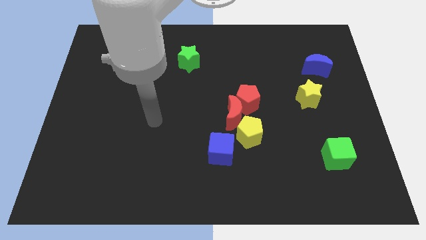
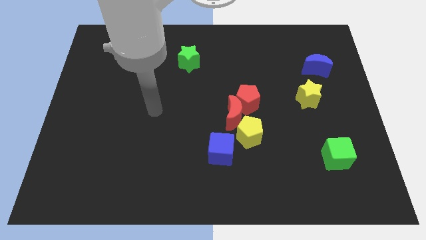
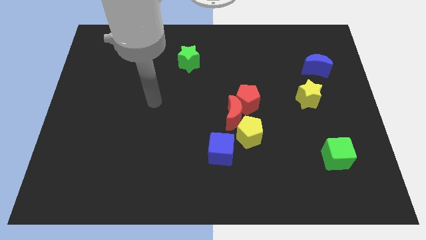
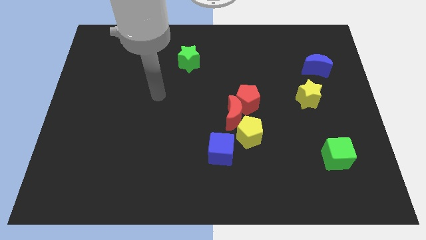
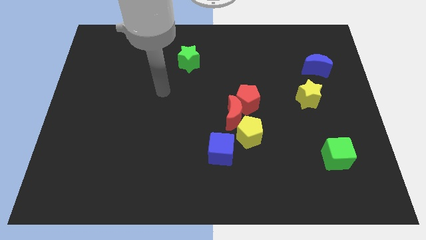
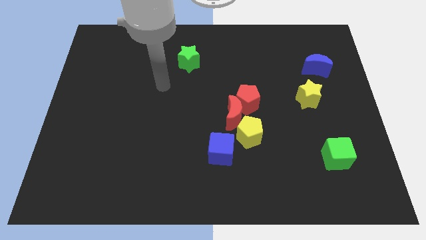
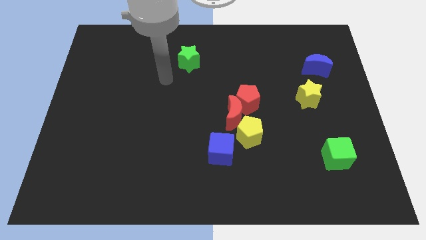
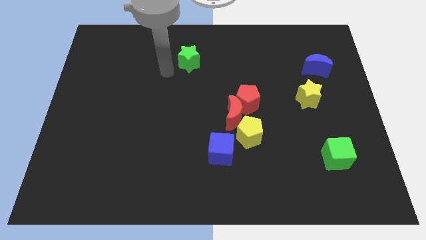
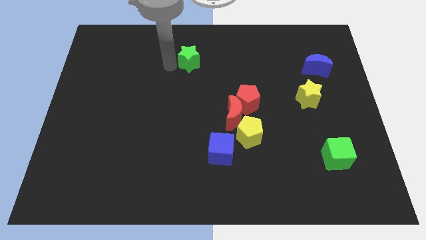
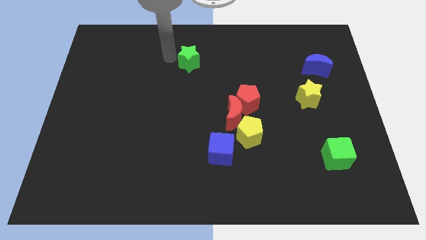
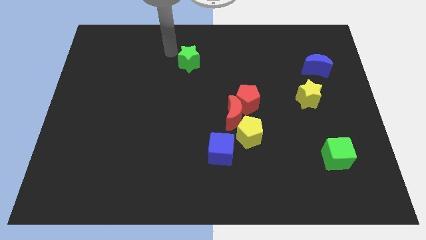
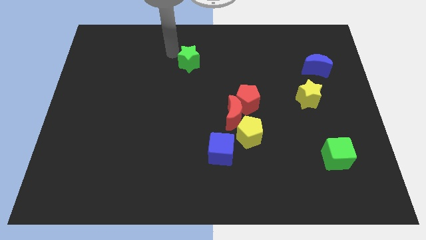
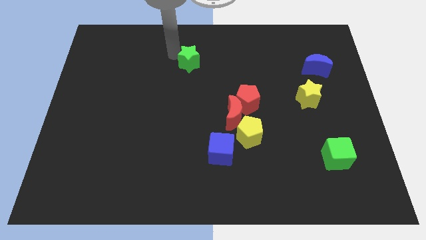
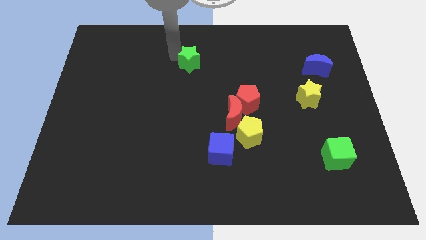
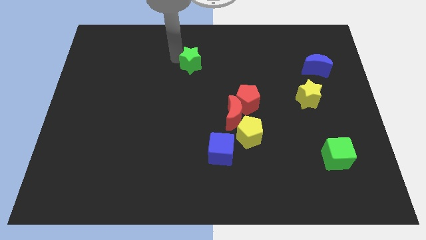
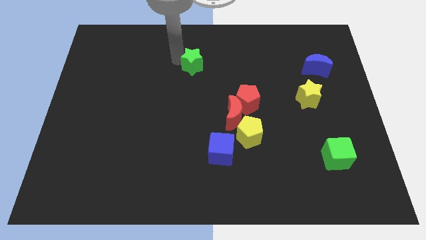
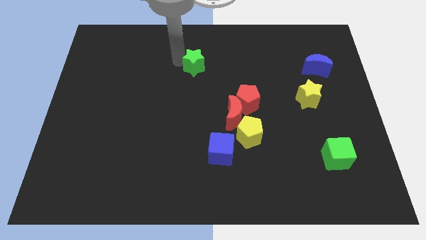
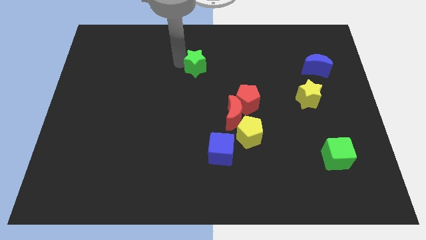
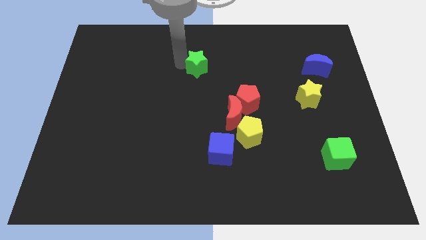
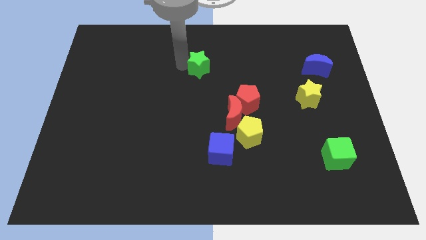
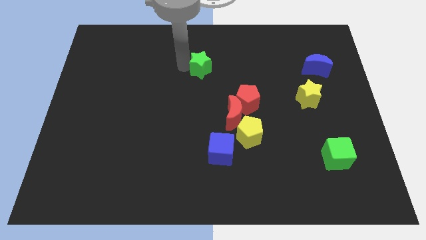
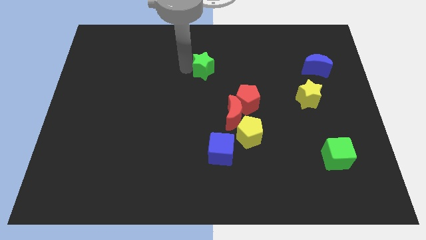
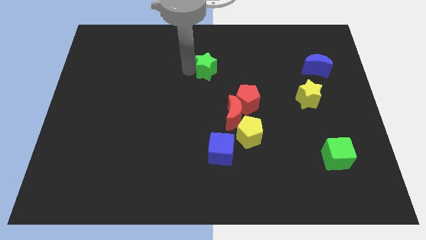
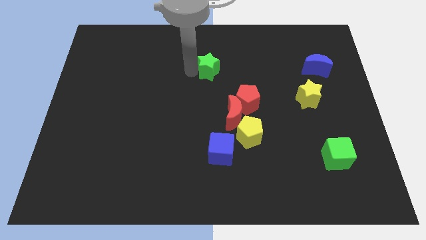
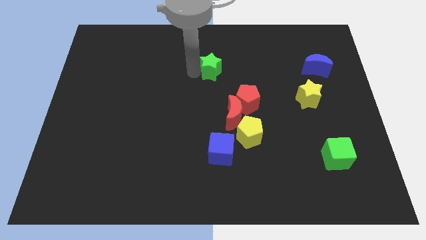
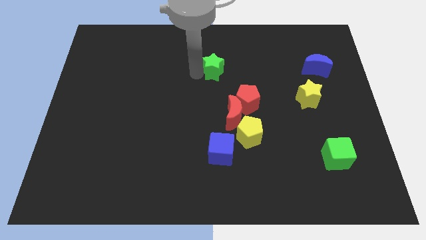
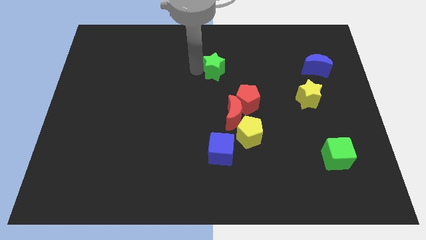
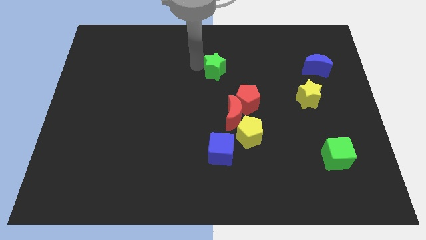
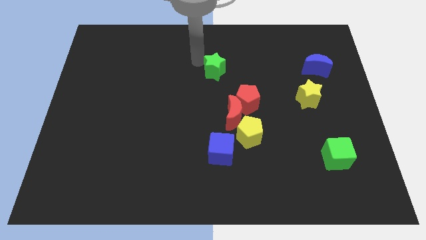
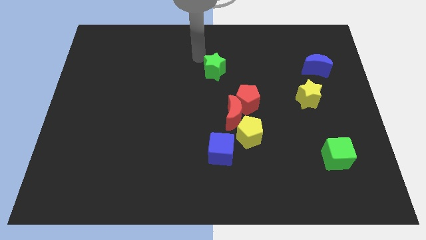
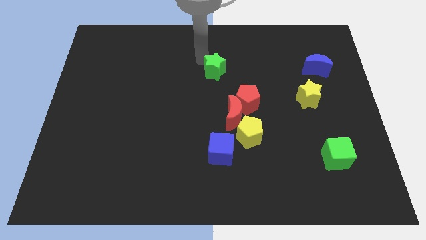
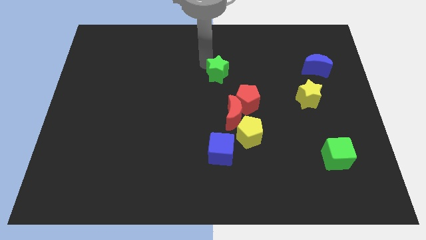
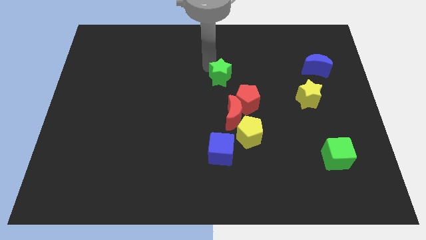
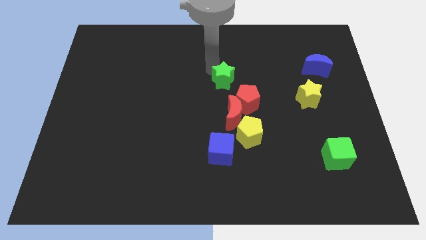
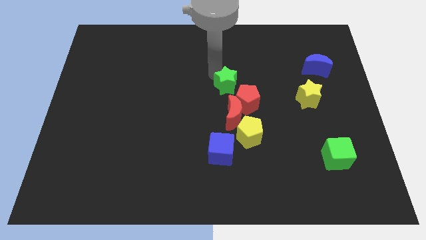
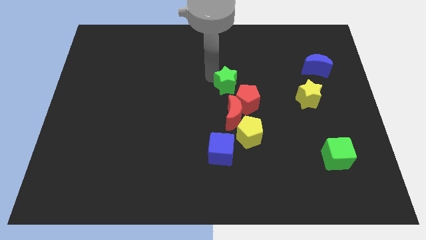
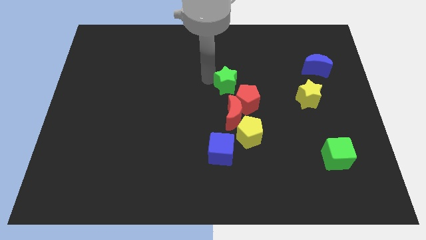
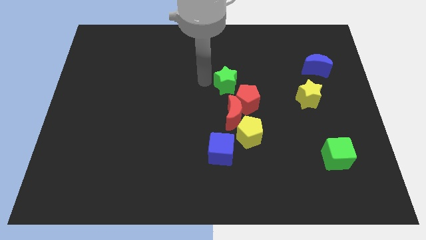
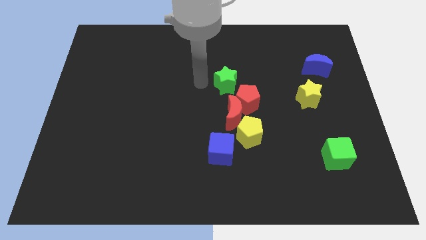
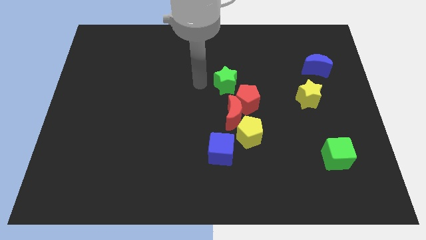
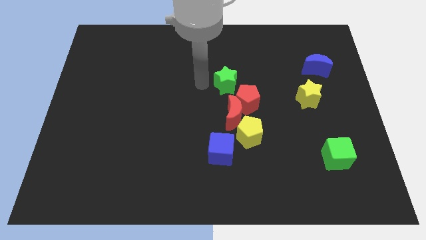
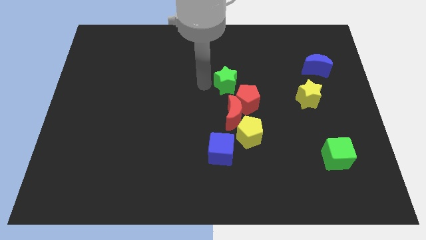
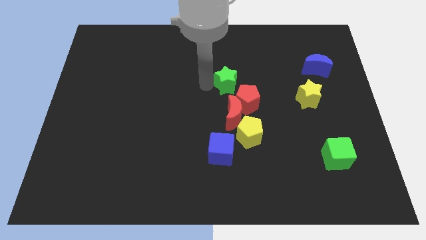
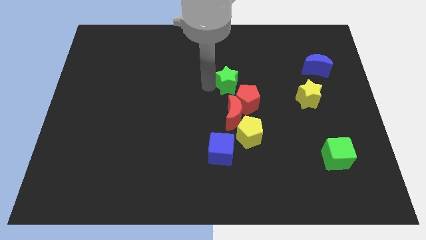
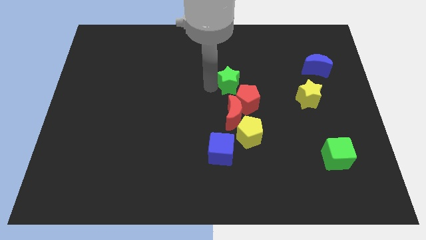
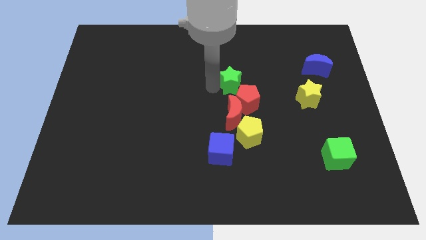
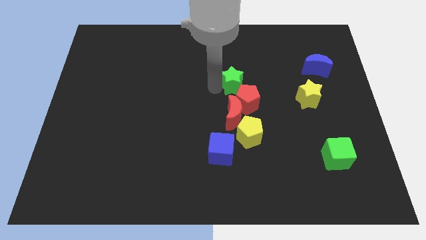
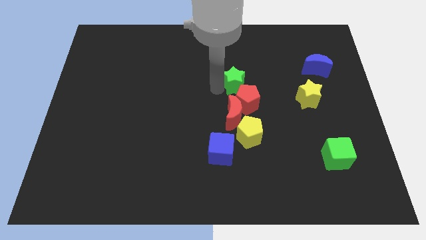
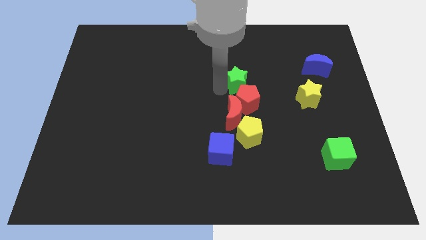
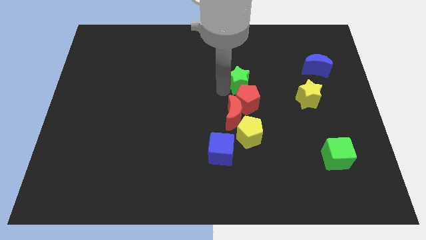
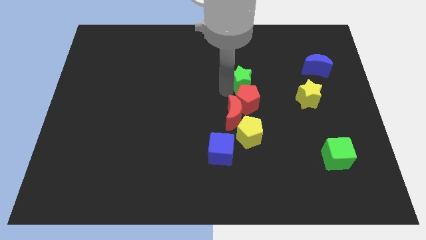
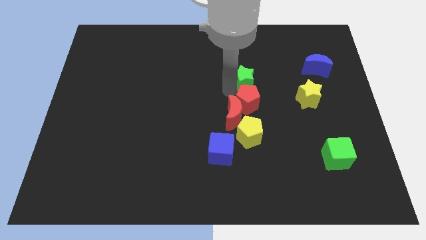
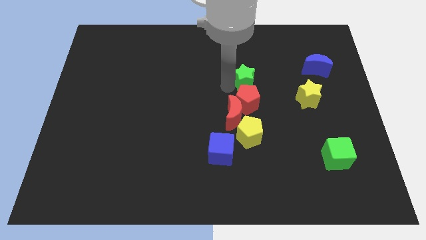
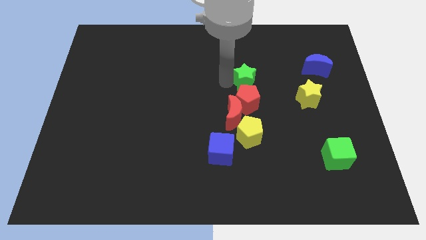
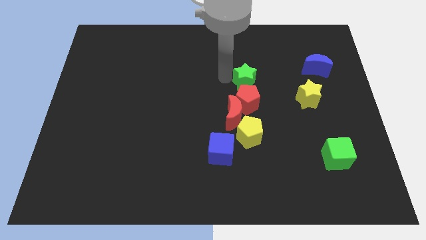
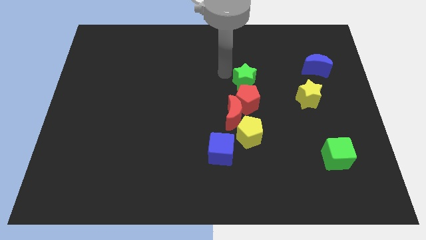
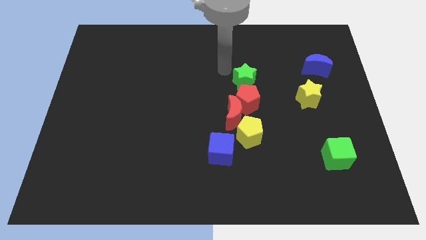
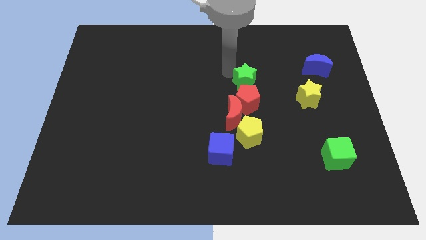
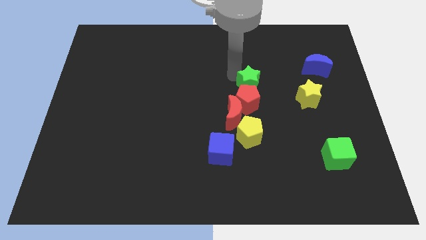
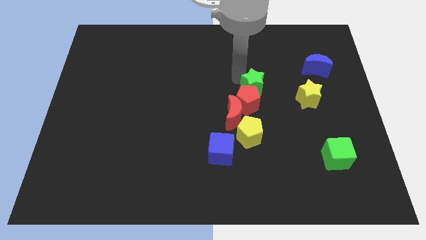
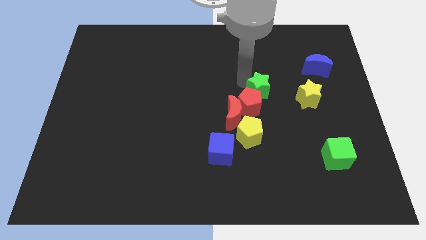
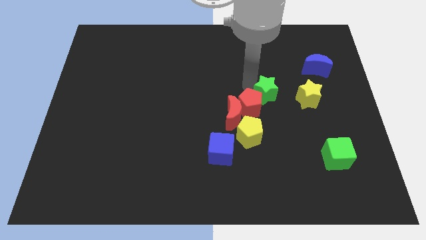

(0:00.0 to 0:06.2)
slide the green star downwards and to the right diagonally

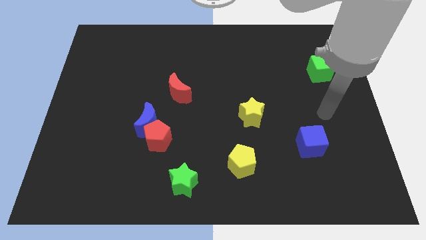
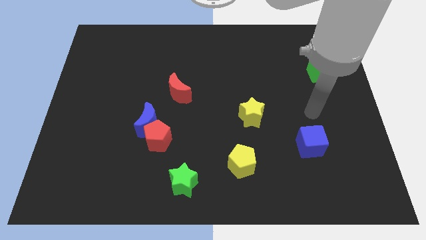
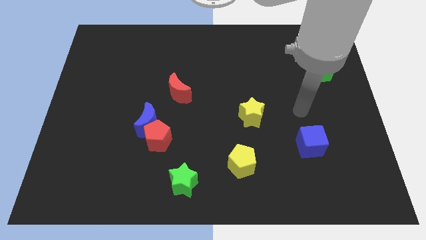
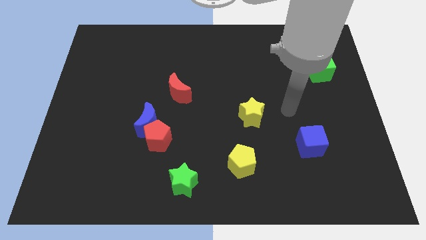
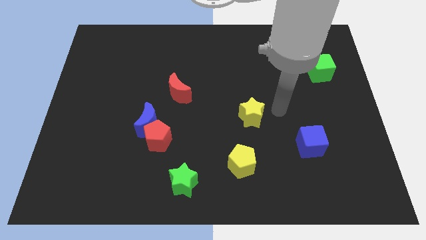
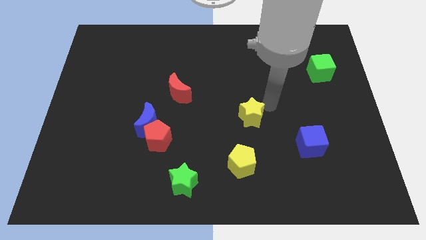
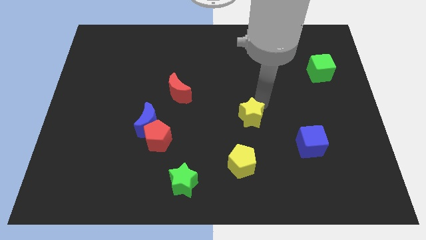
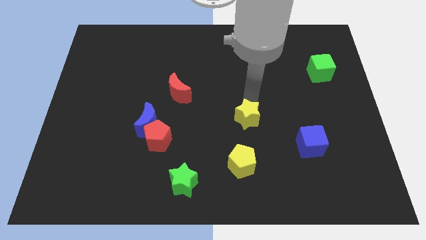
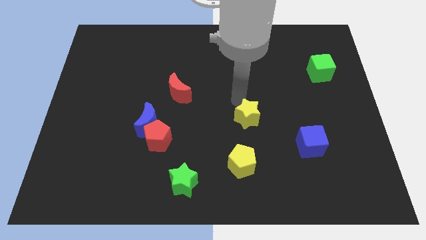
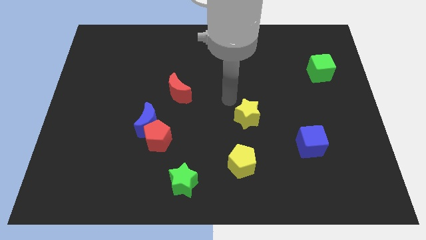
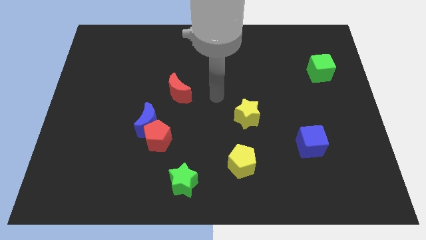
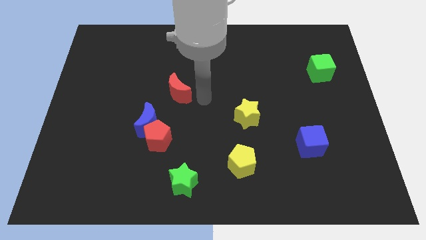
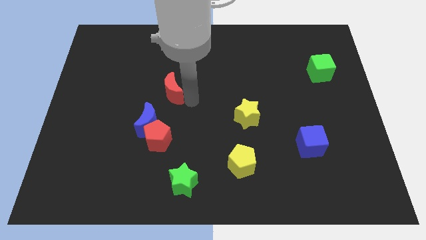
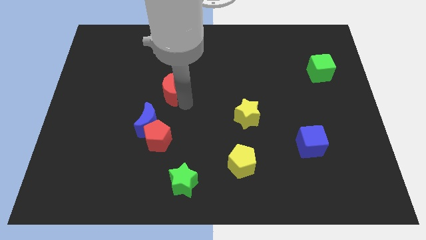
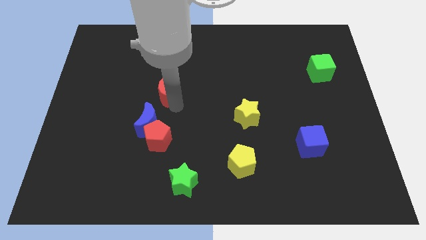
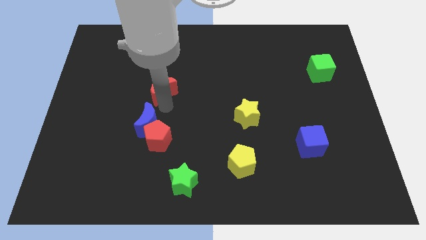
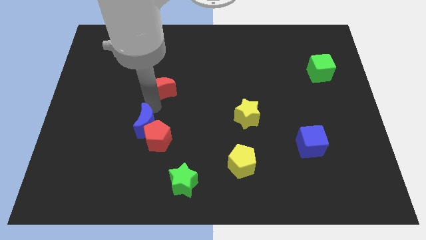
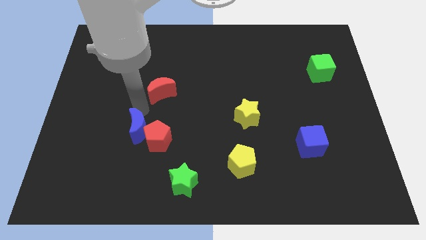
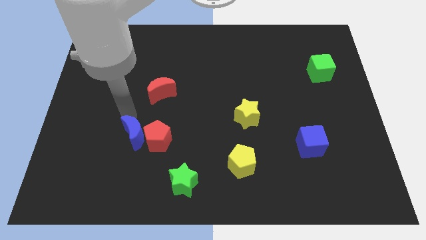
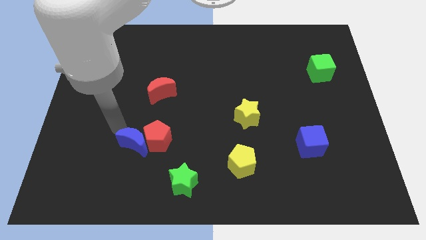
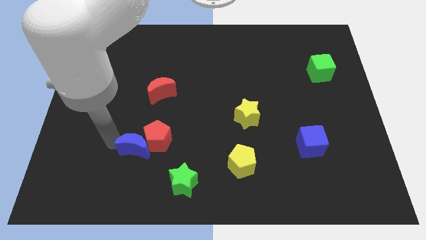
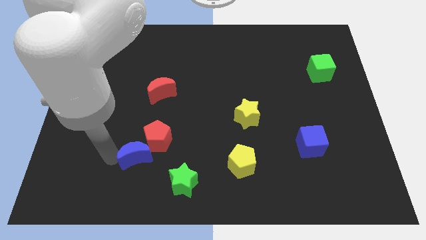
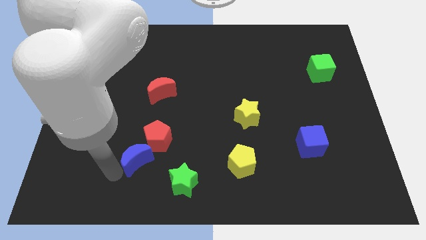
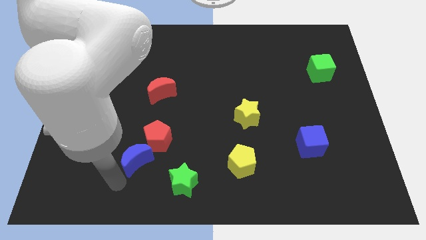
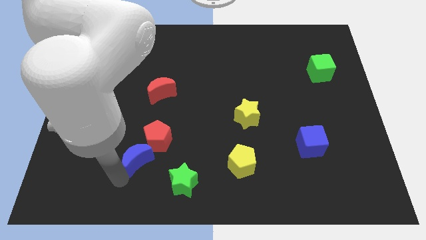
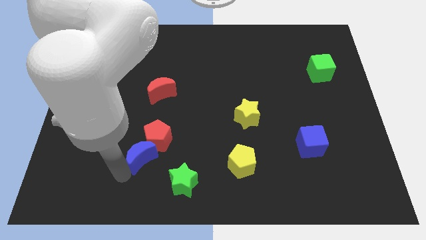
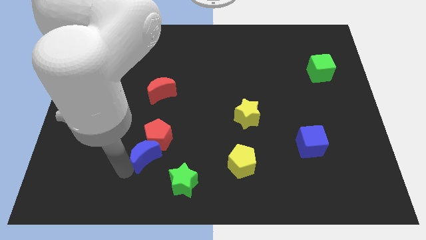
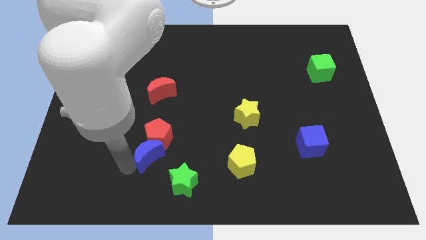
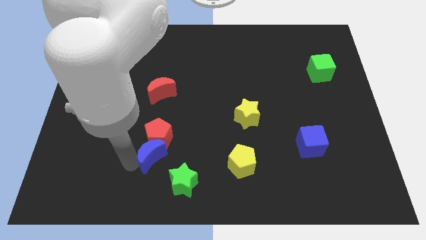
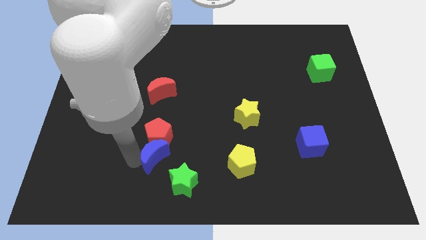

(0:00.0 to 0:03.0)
slide the blue moon a little down and then to the right
